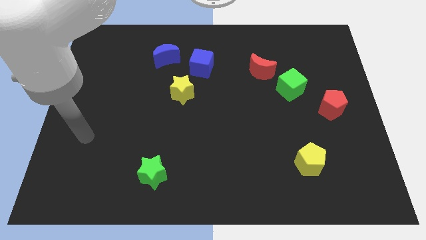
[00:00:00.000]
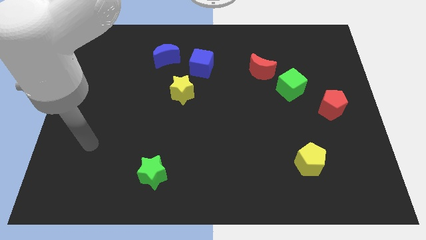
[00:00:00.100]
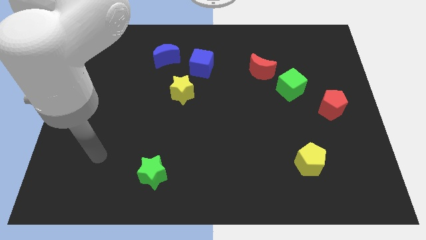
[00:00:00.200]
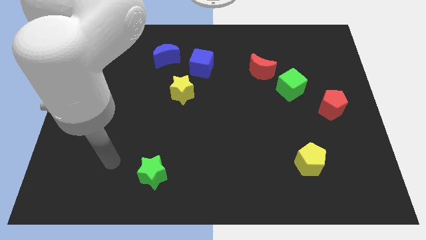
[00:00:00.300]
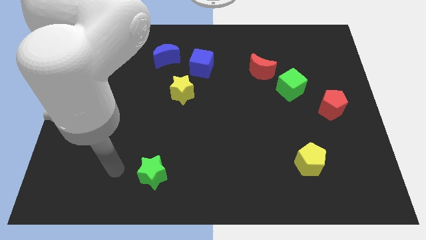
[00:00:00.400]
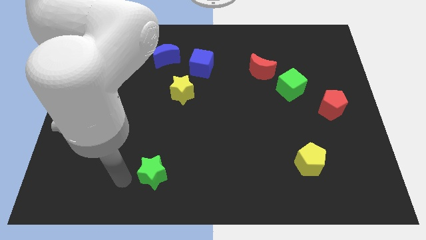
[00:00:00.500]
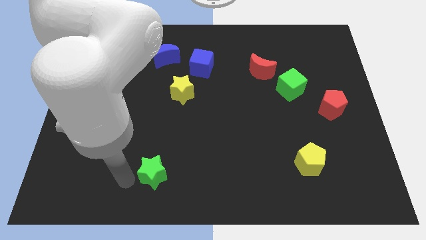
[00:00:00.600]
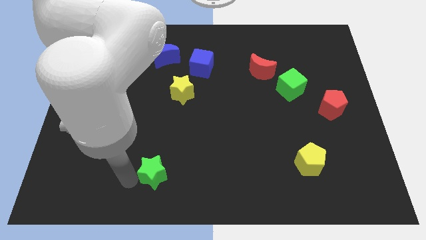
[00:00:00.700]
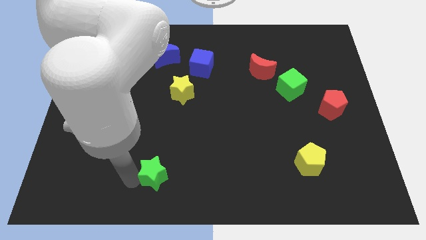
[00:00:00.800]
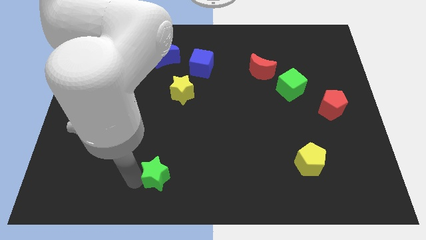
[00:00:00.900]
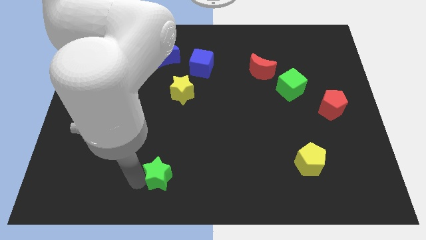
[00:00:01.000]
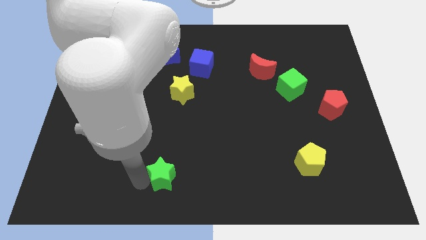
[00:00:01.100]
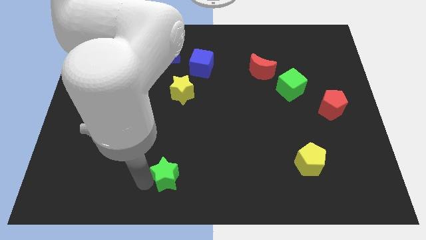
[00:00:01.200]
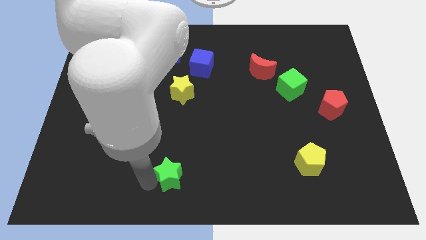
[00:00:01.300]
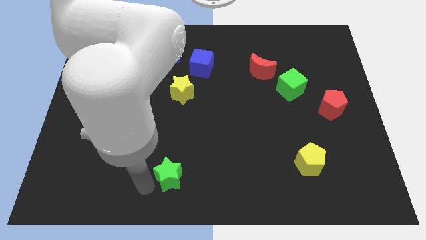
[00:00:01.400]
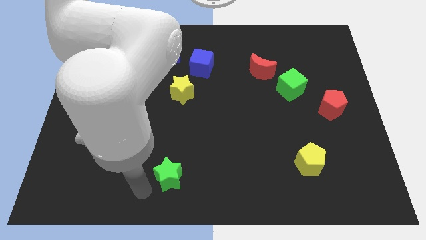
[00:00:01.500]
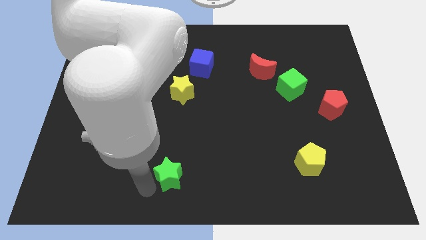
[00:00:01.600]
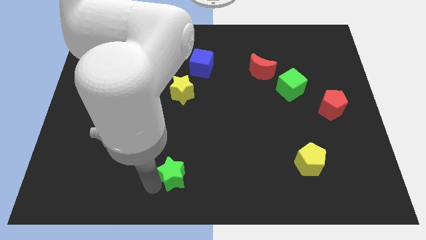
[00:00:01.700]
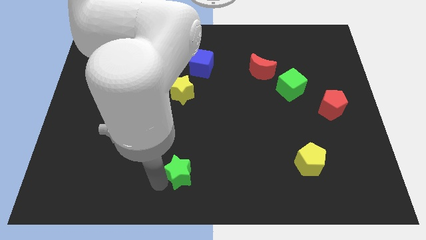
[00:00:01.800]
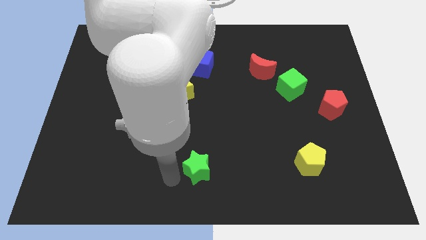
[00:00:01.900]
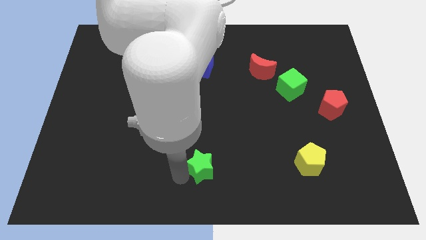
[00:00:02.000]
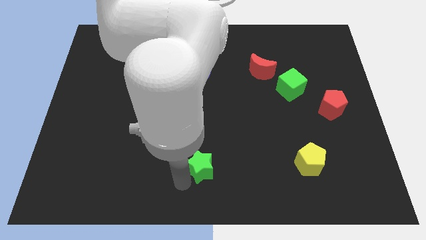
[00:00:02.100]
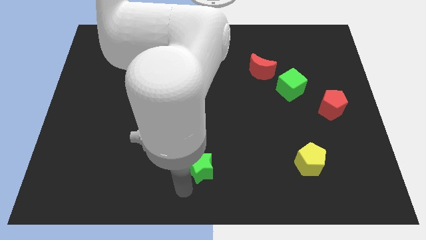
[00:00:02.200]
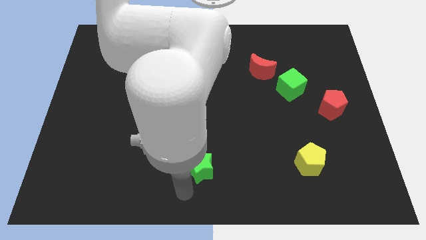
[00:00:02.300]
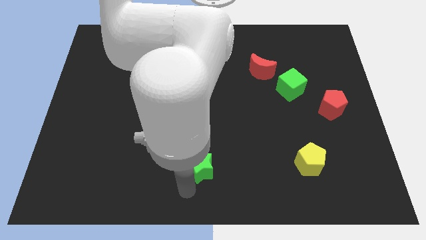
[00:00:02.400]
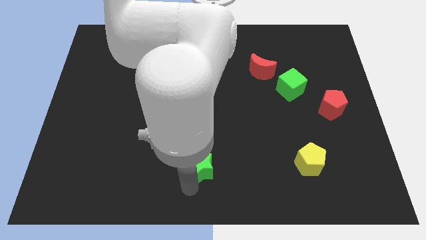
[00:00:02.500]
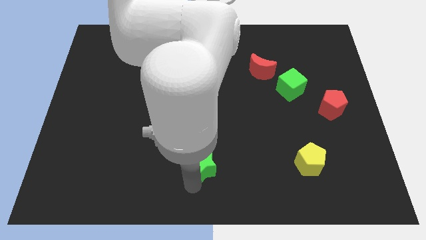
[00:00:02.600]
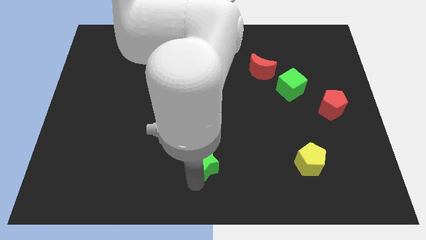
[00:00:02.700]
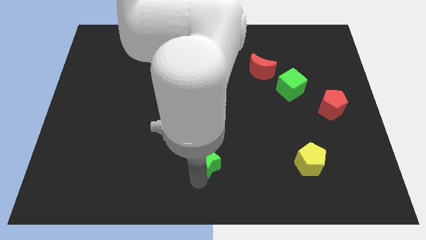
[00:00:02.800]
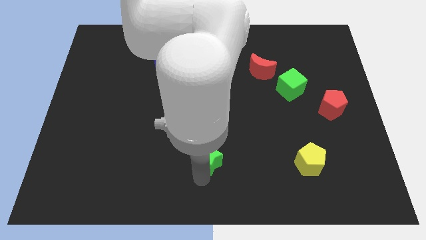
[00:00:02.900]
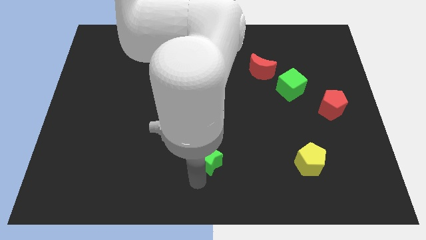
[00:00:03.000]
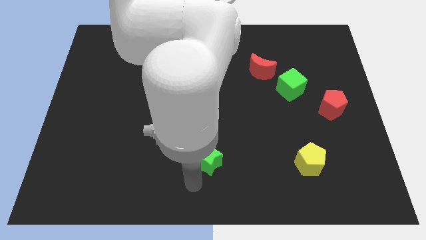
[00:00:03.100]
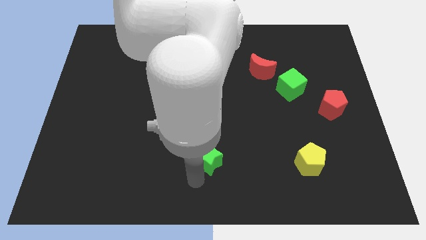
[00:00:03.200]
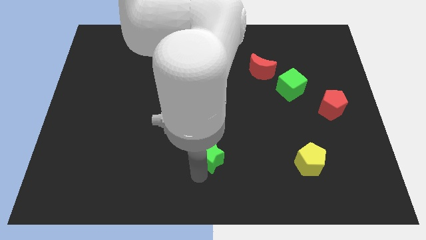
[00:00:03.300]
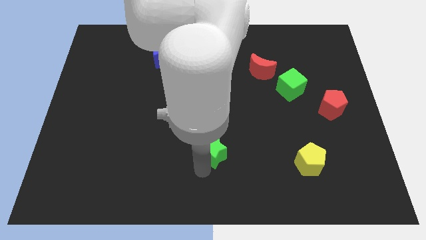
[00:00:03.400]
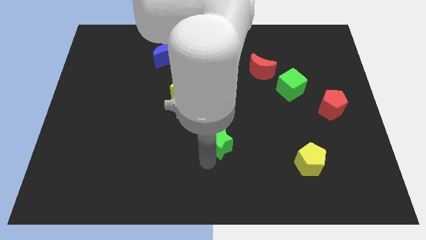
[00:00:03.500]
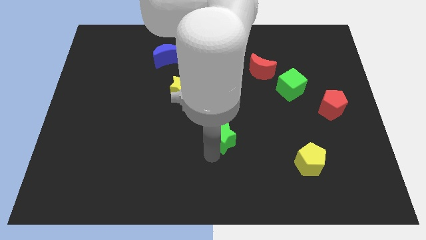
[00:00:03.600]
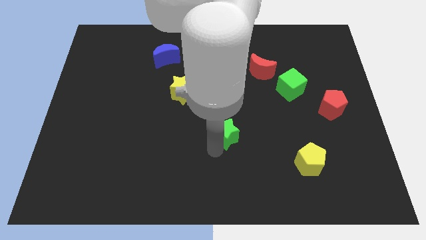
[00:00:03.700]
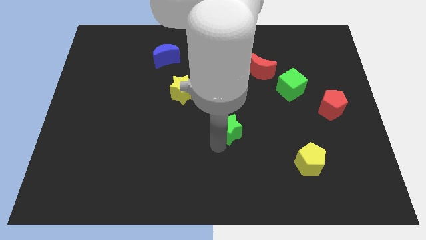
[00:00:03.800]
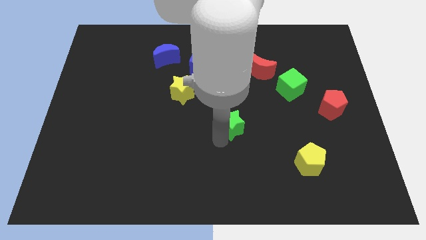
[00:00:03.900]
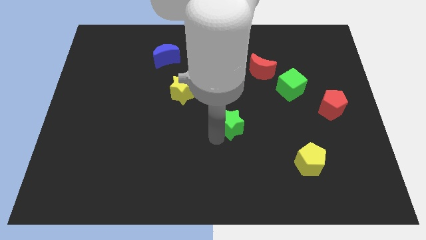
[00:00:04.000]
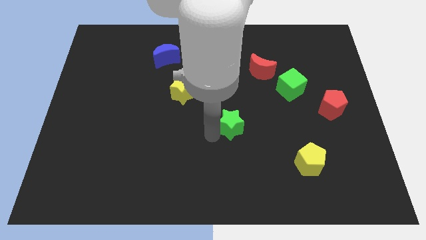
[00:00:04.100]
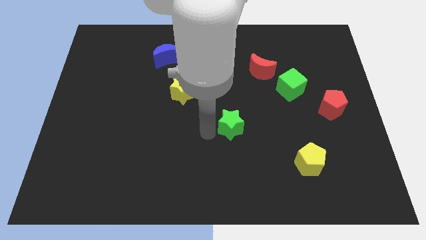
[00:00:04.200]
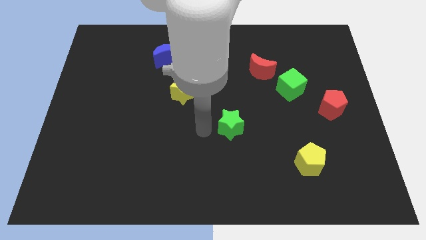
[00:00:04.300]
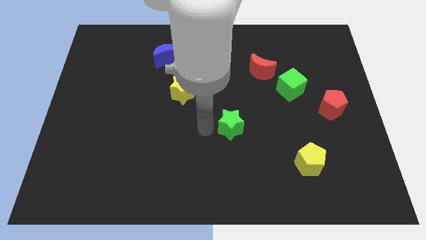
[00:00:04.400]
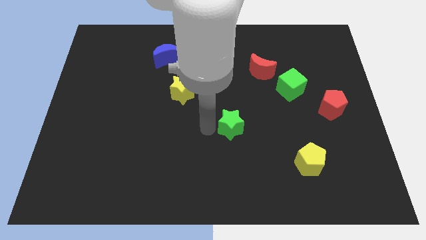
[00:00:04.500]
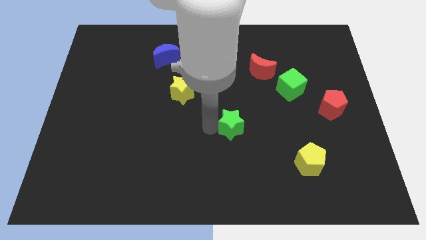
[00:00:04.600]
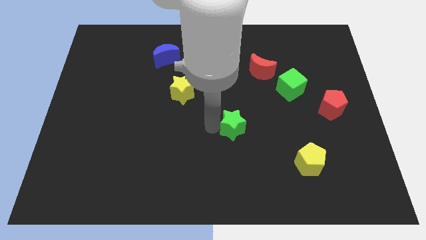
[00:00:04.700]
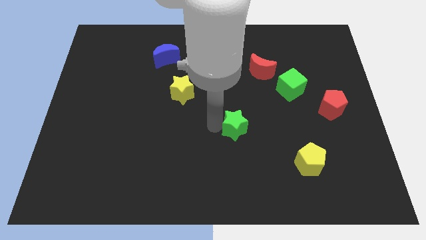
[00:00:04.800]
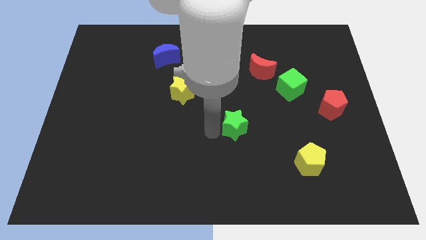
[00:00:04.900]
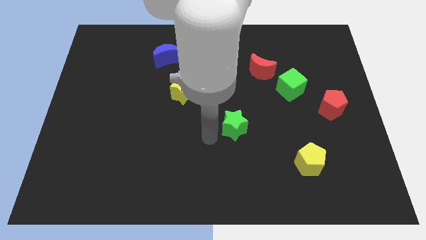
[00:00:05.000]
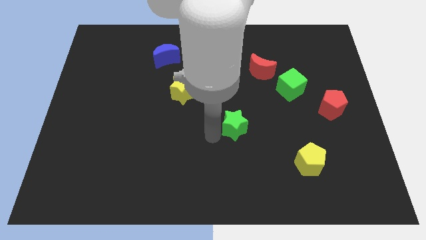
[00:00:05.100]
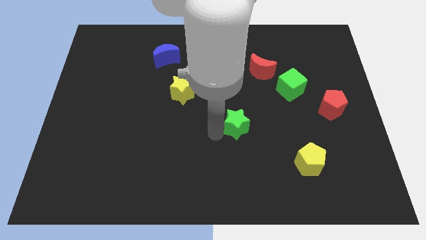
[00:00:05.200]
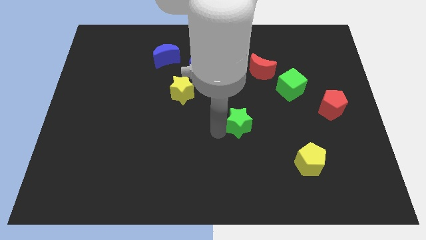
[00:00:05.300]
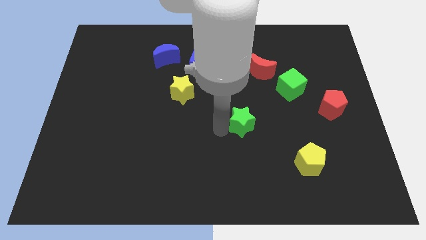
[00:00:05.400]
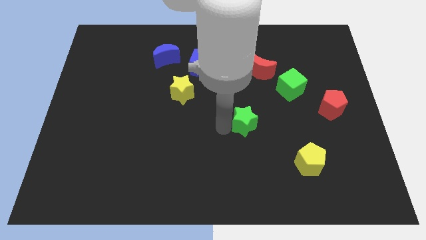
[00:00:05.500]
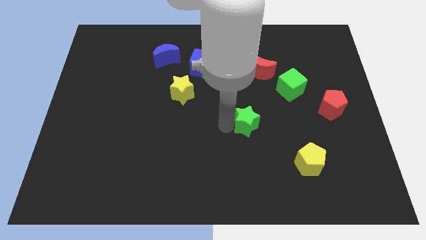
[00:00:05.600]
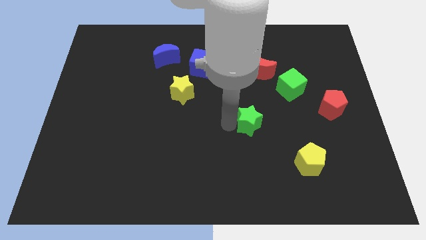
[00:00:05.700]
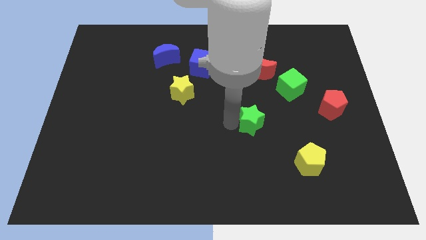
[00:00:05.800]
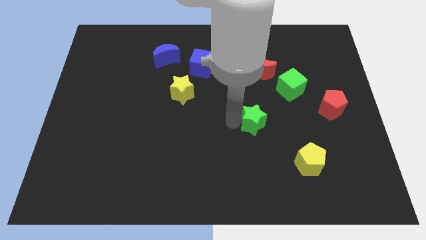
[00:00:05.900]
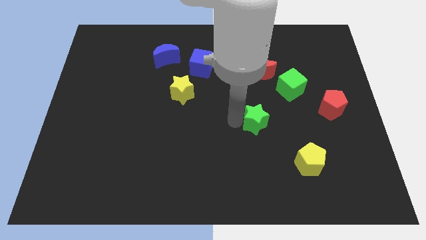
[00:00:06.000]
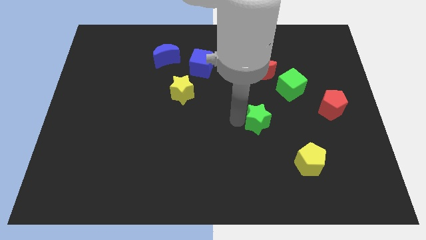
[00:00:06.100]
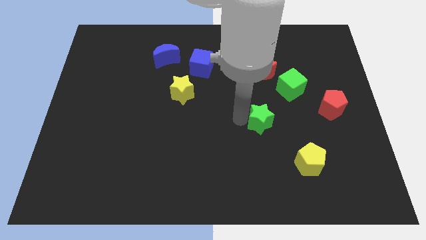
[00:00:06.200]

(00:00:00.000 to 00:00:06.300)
move the green star diagonally down and to the left of the green cube
